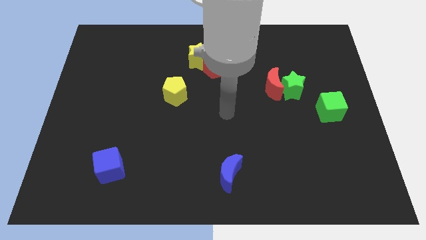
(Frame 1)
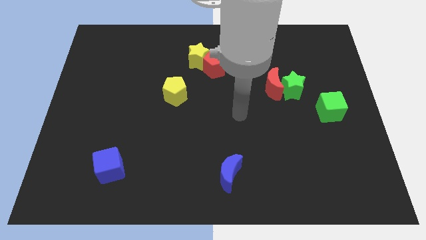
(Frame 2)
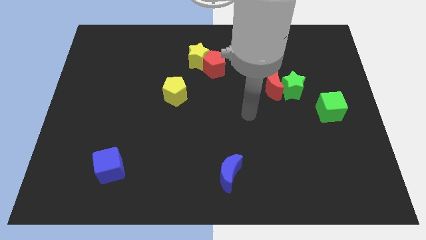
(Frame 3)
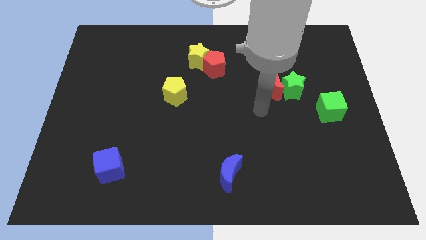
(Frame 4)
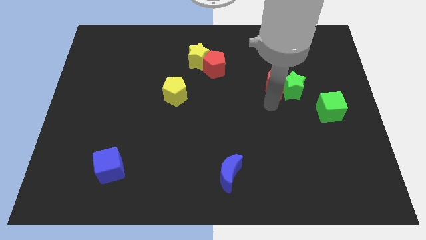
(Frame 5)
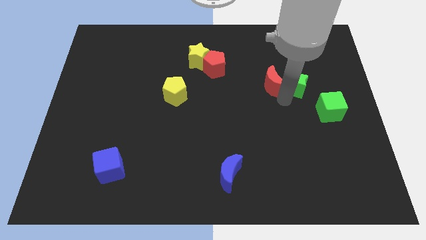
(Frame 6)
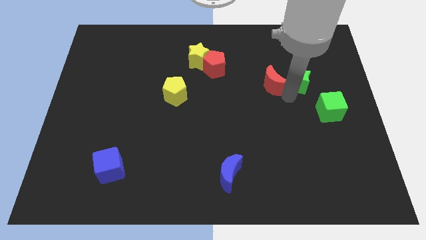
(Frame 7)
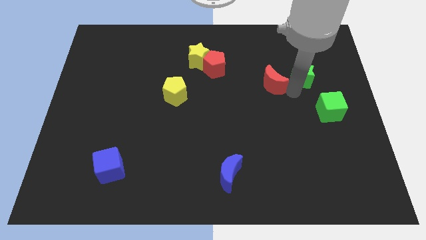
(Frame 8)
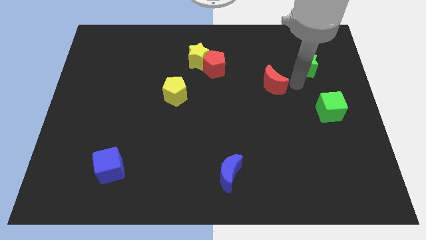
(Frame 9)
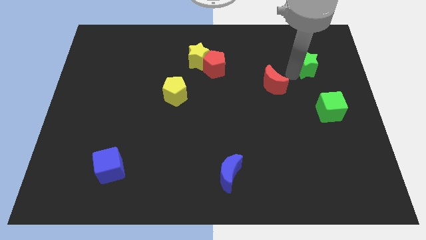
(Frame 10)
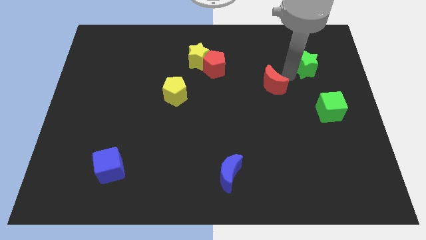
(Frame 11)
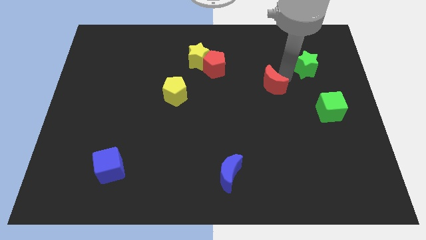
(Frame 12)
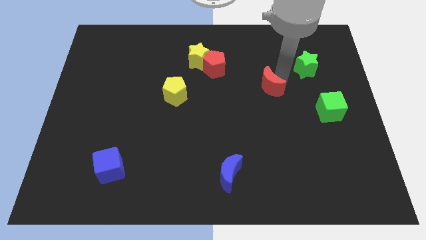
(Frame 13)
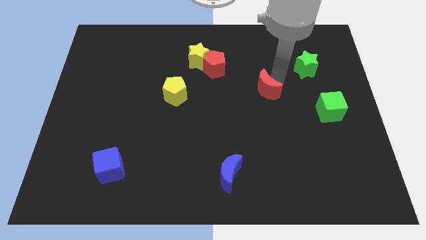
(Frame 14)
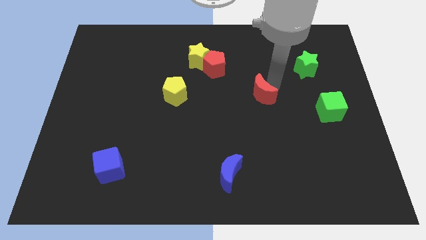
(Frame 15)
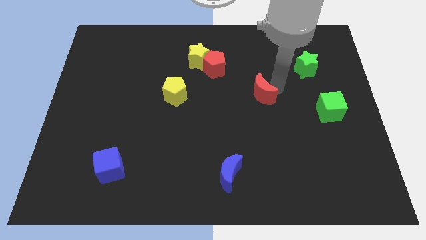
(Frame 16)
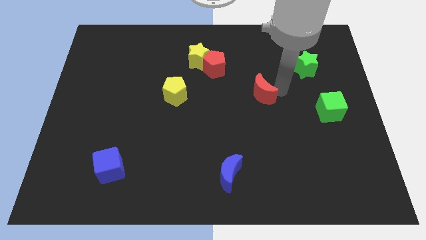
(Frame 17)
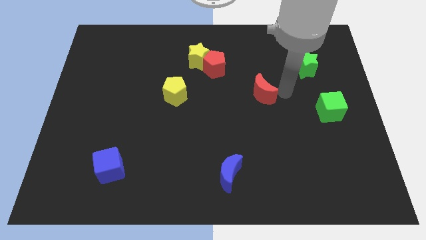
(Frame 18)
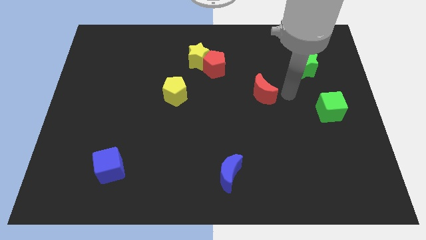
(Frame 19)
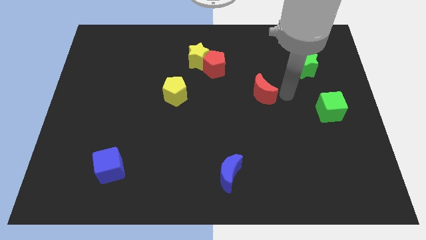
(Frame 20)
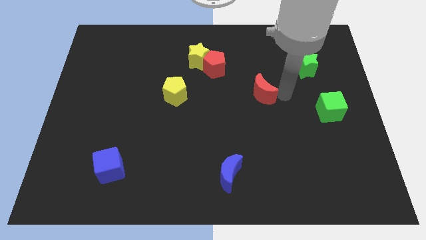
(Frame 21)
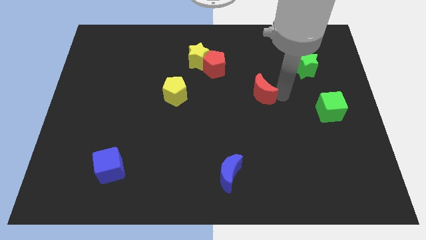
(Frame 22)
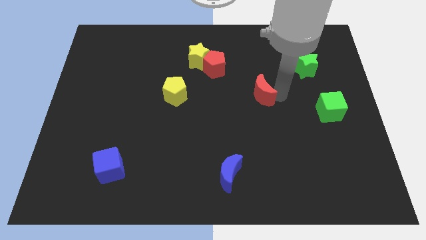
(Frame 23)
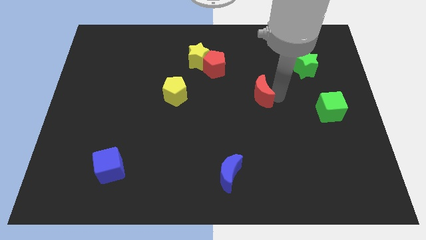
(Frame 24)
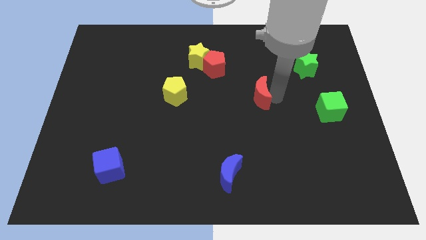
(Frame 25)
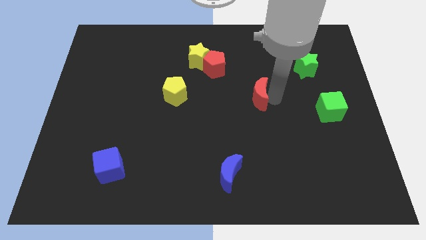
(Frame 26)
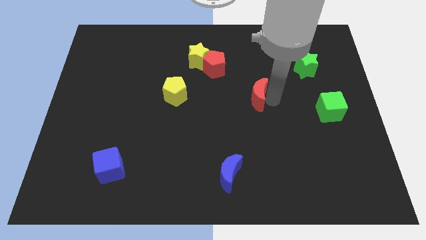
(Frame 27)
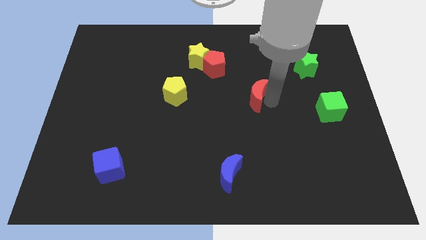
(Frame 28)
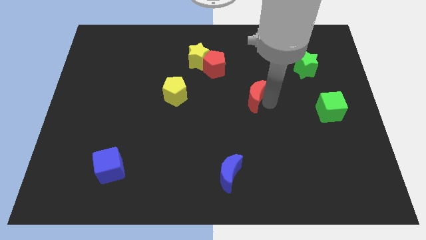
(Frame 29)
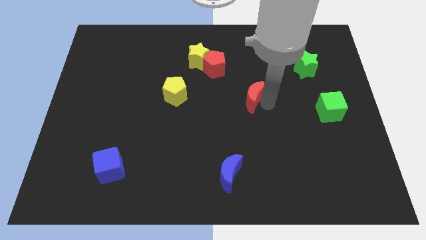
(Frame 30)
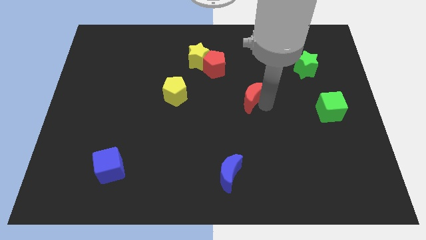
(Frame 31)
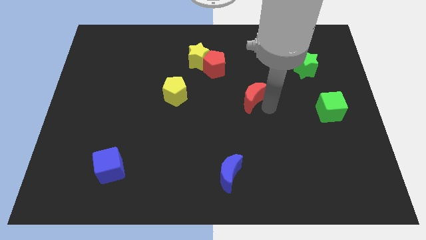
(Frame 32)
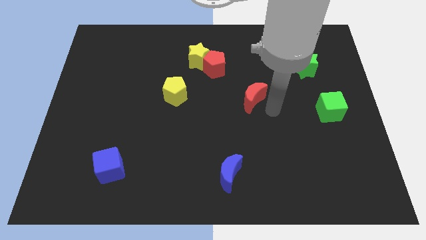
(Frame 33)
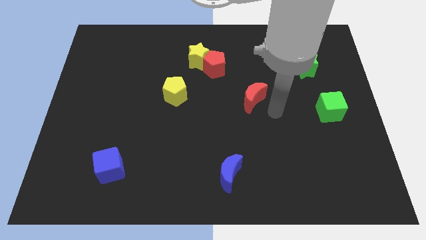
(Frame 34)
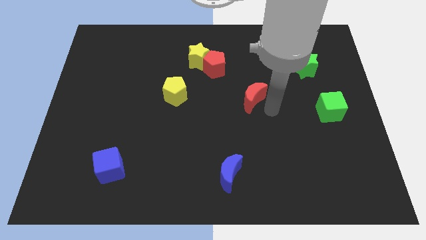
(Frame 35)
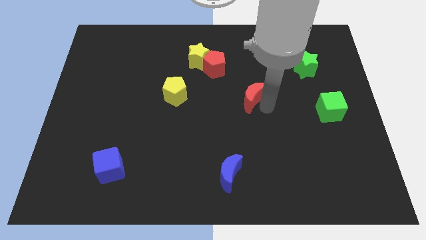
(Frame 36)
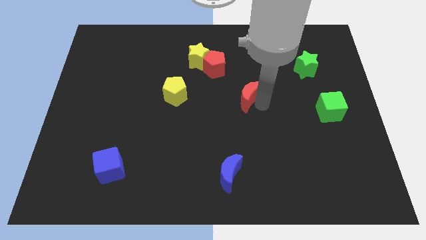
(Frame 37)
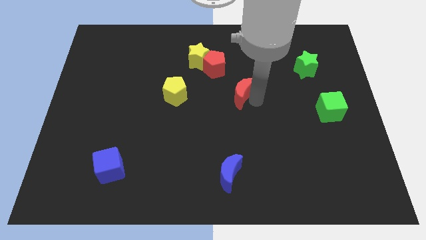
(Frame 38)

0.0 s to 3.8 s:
push the red moon a little bit to the left

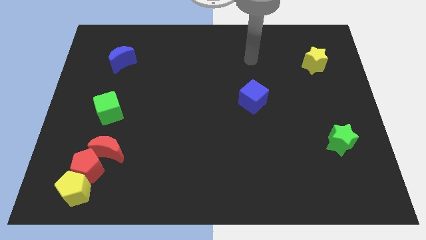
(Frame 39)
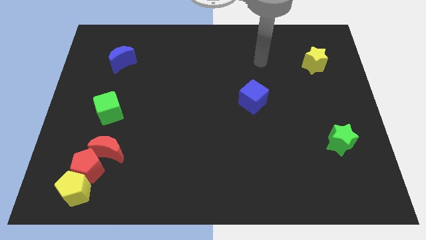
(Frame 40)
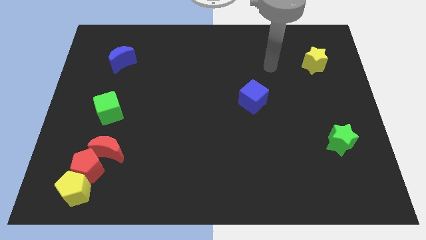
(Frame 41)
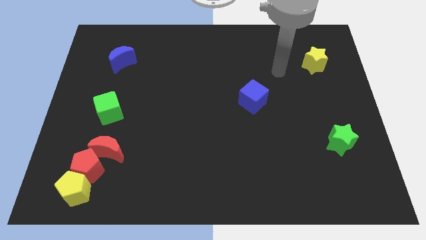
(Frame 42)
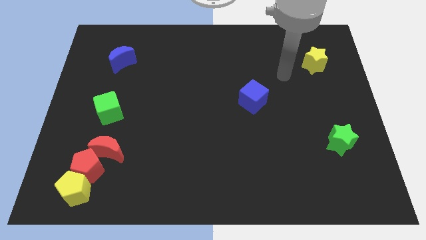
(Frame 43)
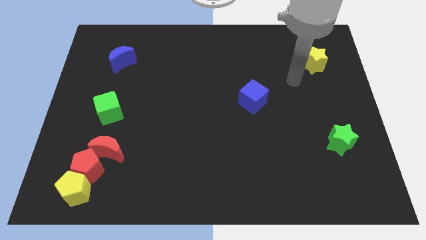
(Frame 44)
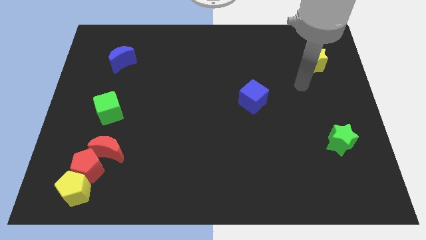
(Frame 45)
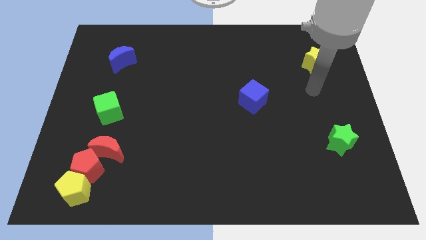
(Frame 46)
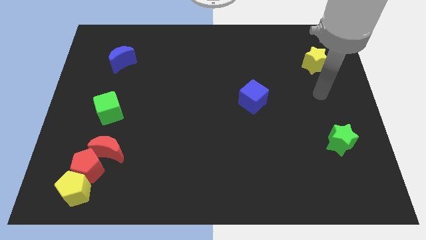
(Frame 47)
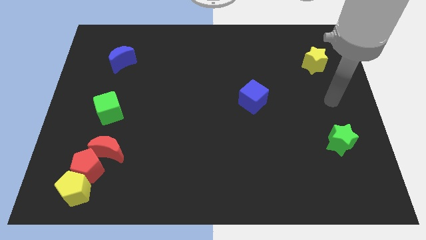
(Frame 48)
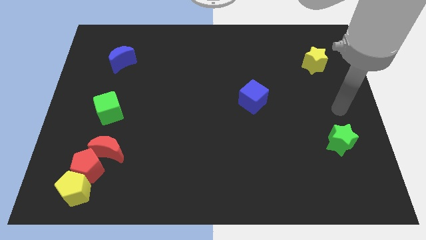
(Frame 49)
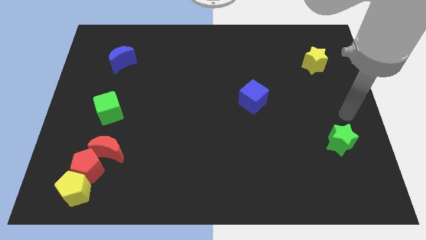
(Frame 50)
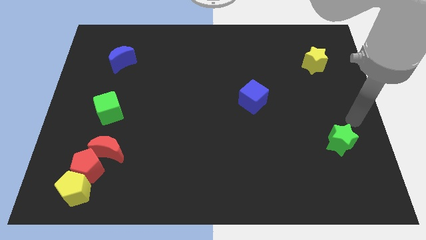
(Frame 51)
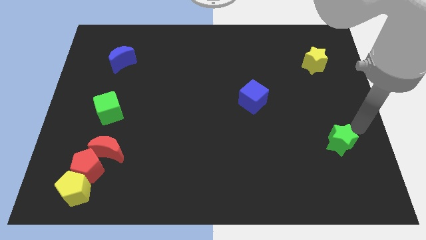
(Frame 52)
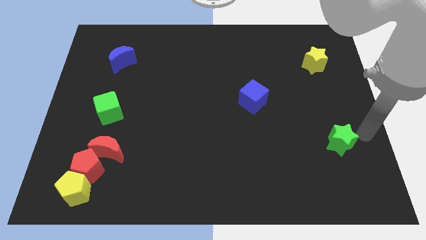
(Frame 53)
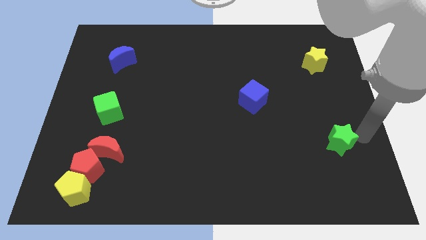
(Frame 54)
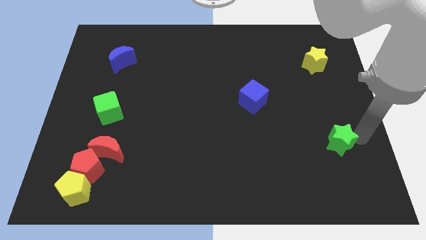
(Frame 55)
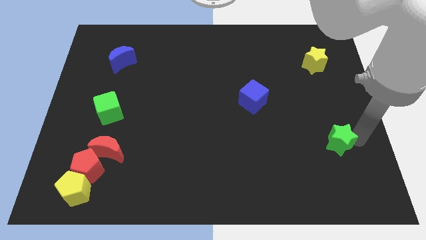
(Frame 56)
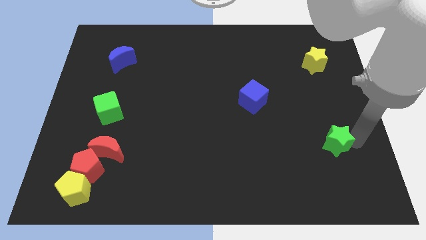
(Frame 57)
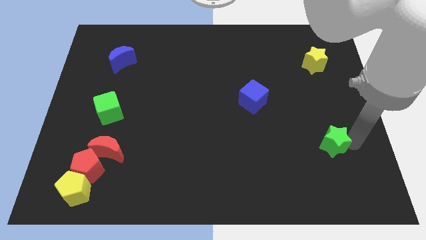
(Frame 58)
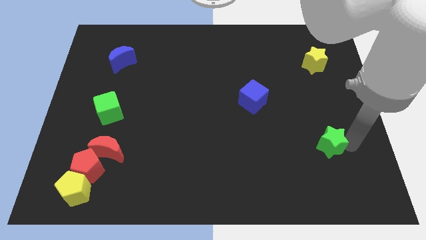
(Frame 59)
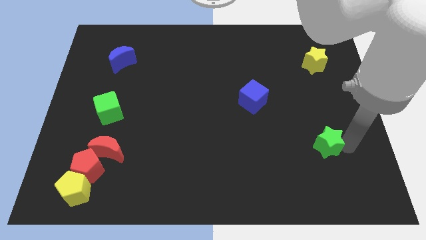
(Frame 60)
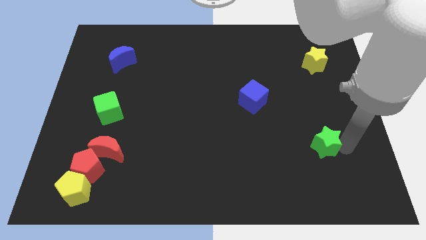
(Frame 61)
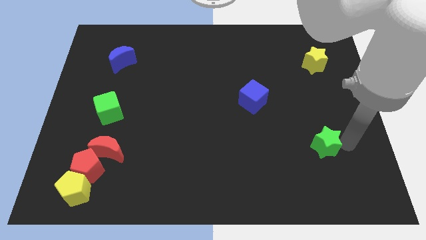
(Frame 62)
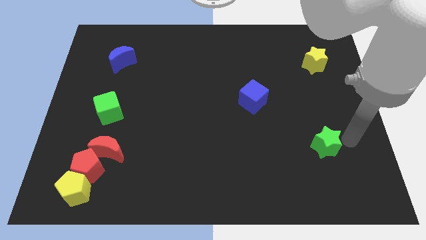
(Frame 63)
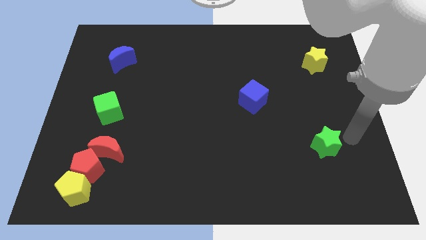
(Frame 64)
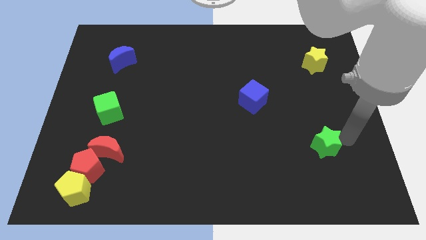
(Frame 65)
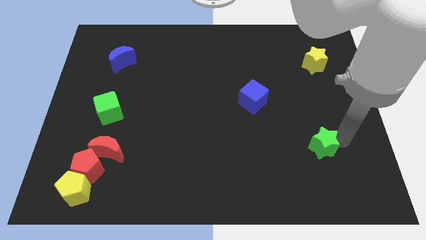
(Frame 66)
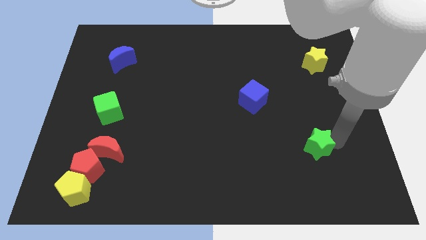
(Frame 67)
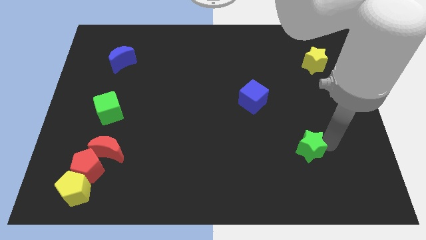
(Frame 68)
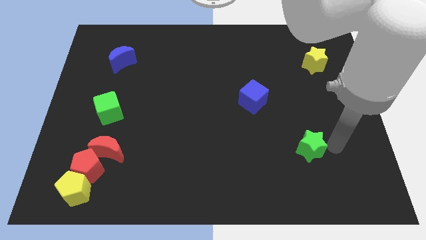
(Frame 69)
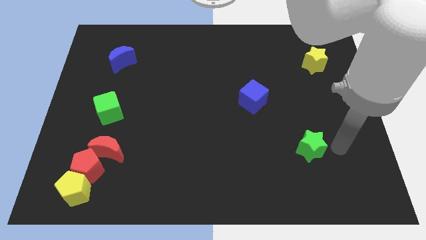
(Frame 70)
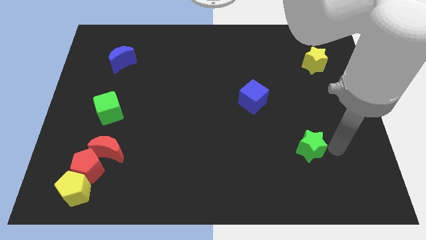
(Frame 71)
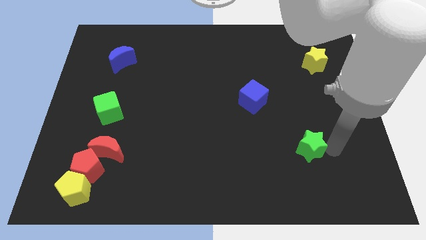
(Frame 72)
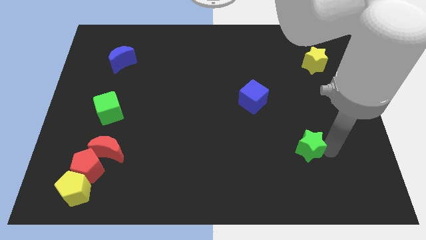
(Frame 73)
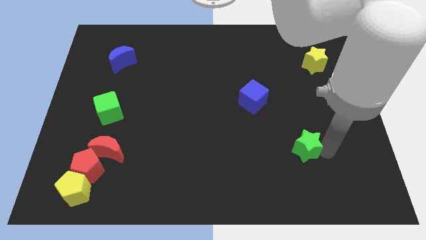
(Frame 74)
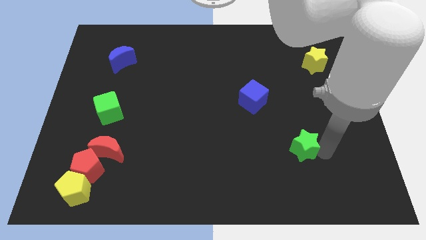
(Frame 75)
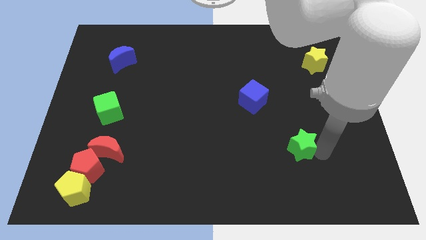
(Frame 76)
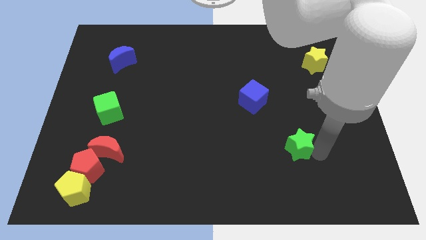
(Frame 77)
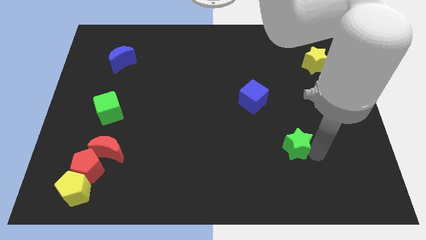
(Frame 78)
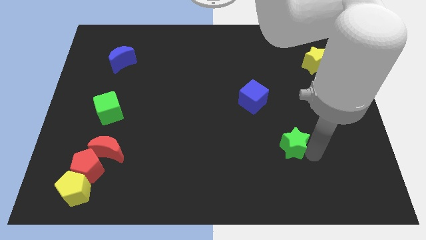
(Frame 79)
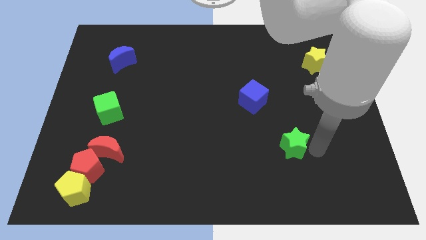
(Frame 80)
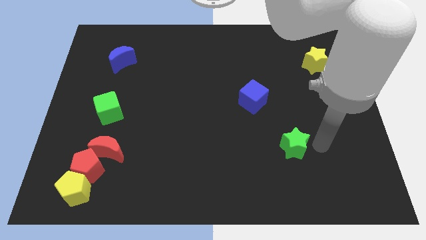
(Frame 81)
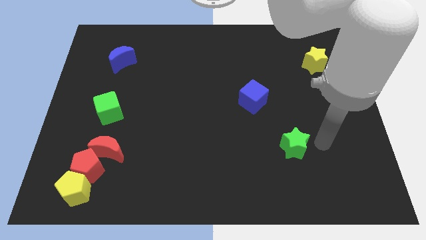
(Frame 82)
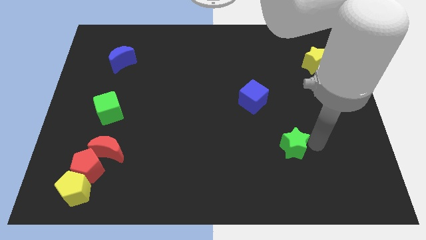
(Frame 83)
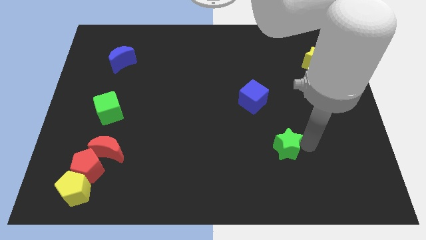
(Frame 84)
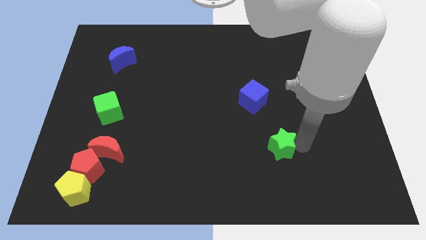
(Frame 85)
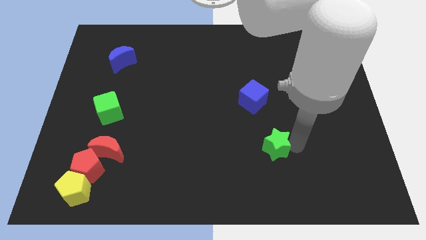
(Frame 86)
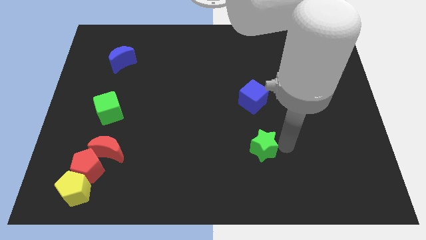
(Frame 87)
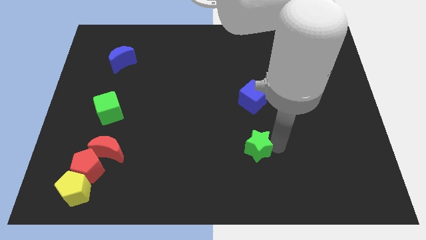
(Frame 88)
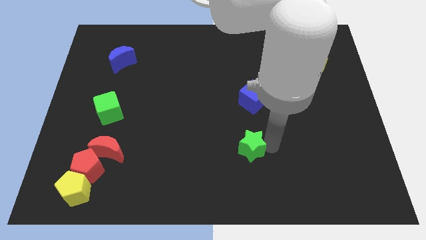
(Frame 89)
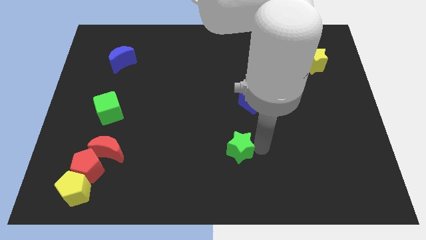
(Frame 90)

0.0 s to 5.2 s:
move the green star left
